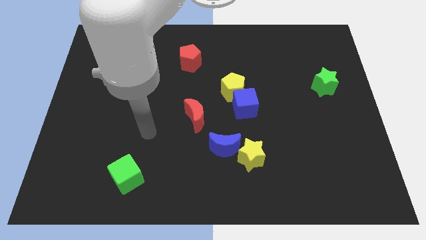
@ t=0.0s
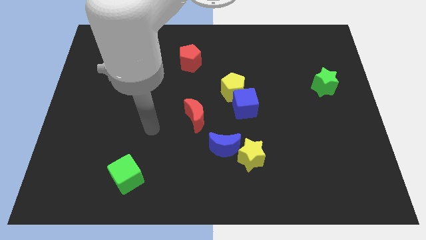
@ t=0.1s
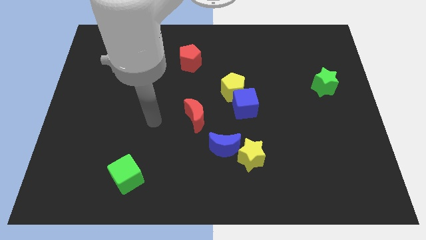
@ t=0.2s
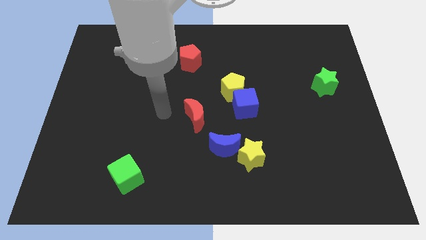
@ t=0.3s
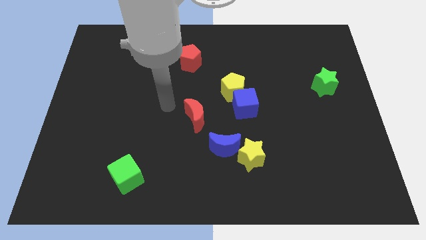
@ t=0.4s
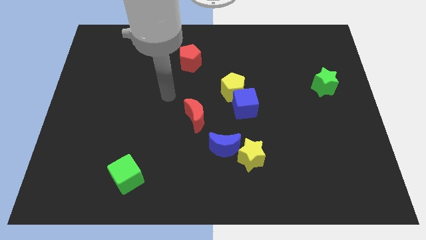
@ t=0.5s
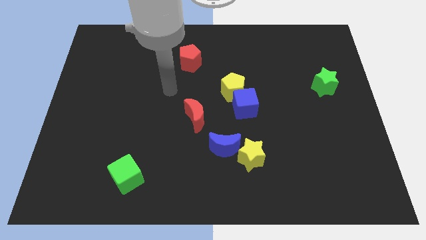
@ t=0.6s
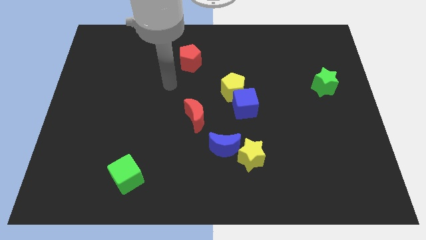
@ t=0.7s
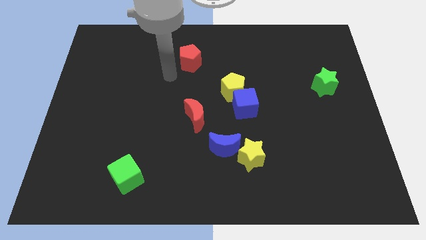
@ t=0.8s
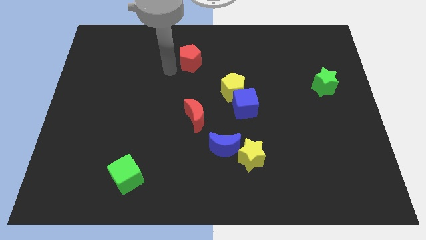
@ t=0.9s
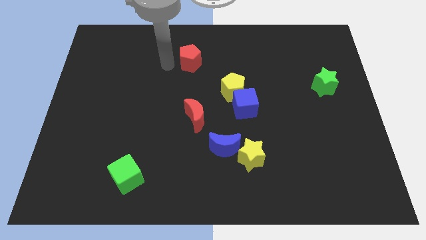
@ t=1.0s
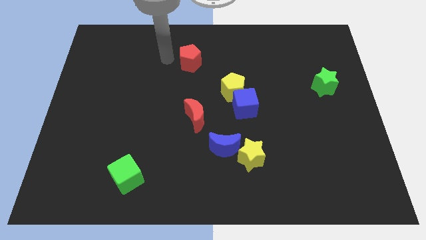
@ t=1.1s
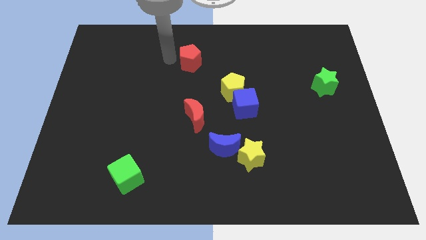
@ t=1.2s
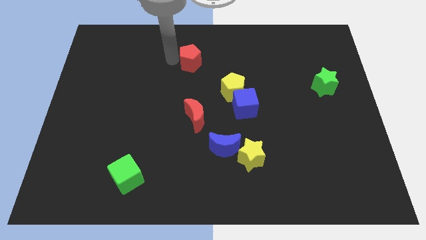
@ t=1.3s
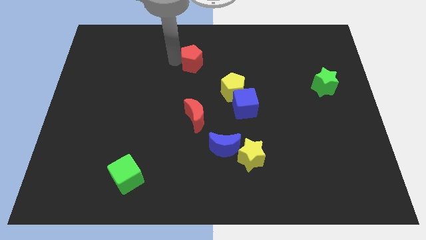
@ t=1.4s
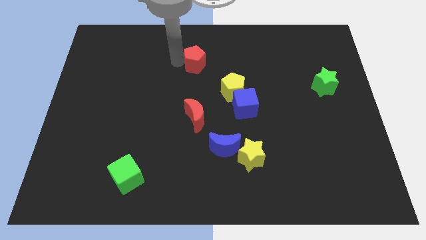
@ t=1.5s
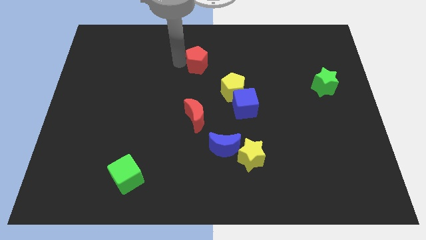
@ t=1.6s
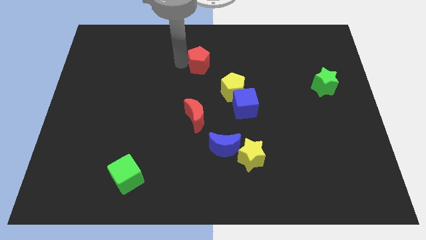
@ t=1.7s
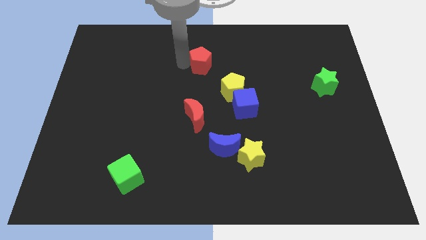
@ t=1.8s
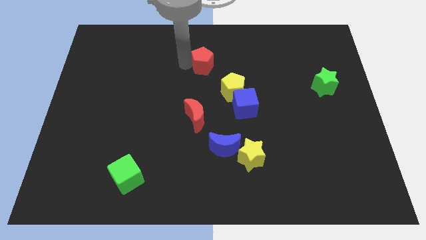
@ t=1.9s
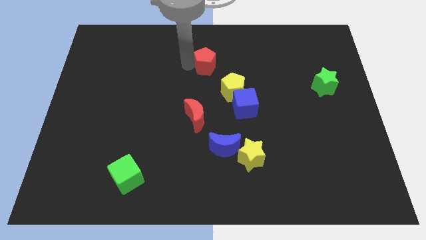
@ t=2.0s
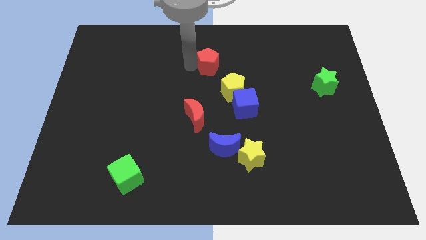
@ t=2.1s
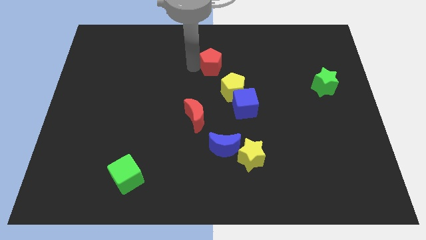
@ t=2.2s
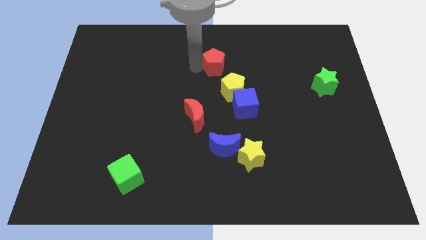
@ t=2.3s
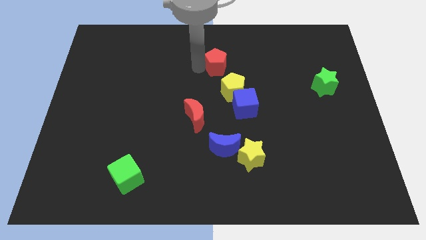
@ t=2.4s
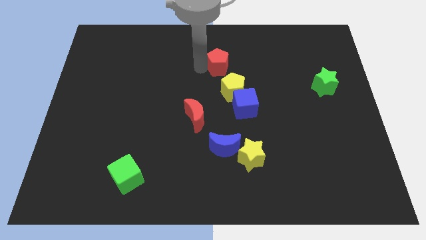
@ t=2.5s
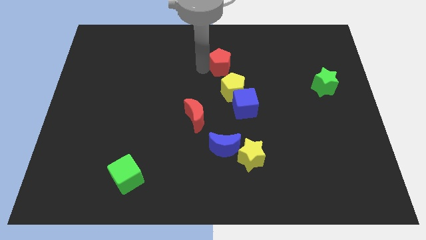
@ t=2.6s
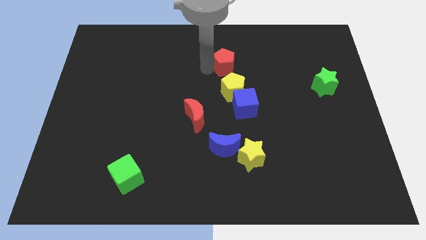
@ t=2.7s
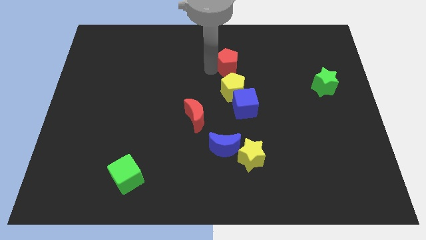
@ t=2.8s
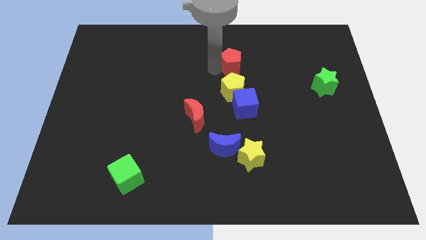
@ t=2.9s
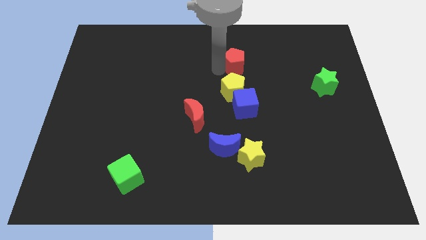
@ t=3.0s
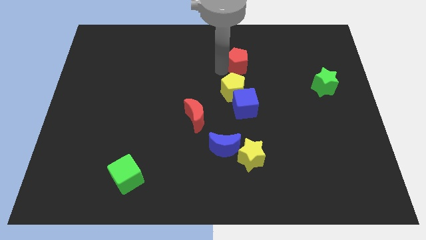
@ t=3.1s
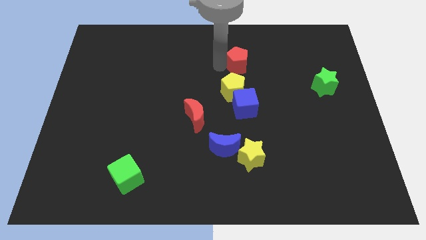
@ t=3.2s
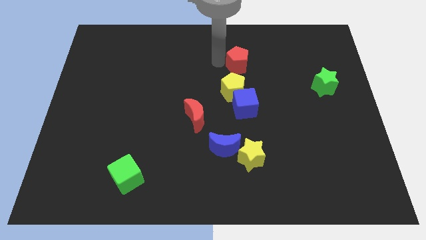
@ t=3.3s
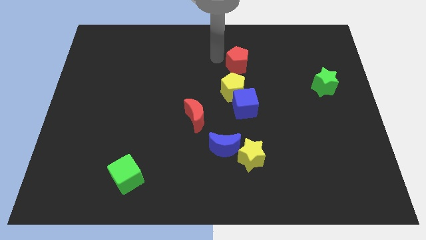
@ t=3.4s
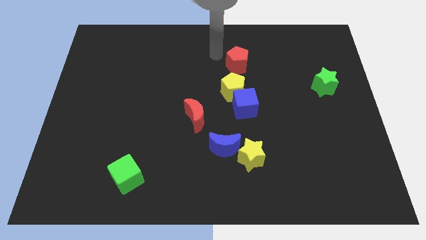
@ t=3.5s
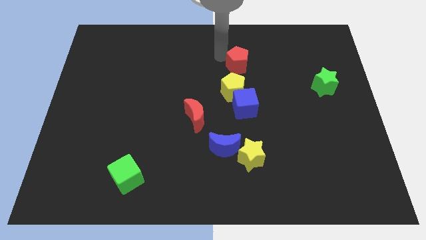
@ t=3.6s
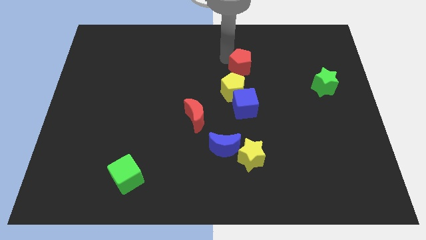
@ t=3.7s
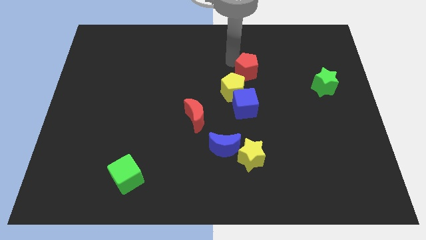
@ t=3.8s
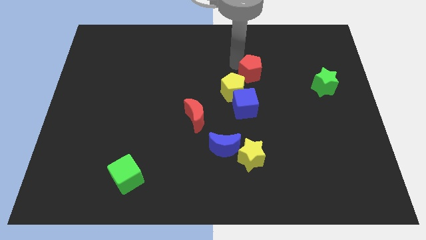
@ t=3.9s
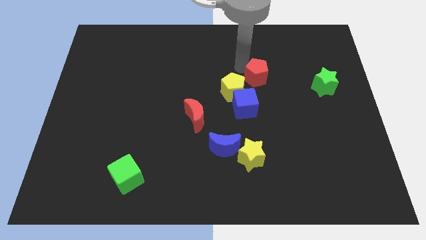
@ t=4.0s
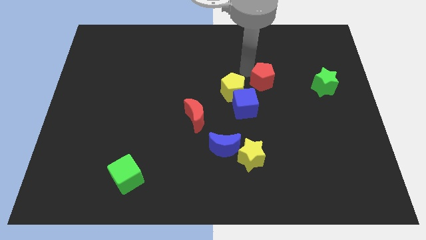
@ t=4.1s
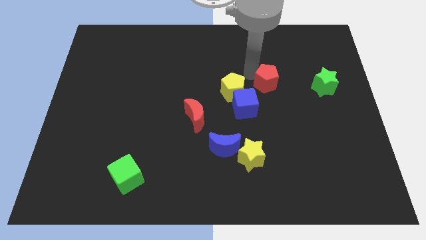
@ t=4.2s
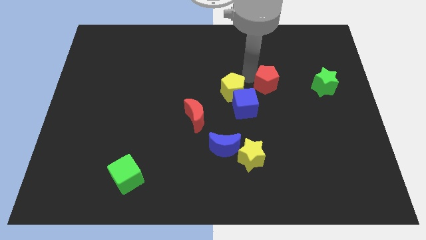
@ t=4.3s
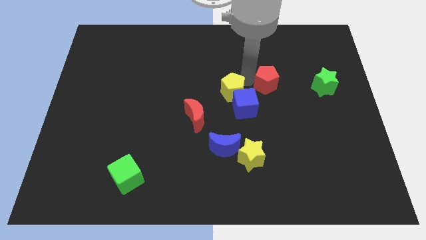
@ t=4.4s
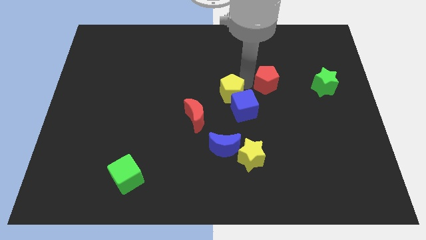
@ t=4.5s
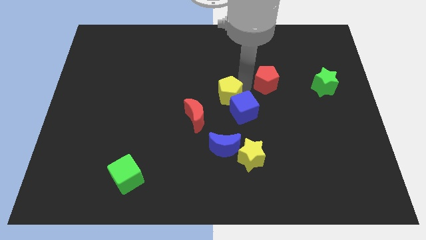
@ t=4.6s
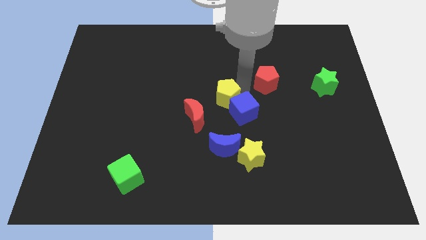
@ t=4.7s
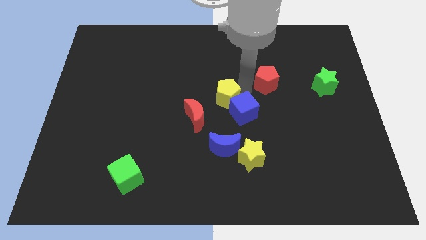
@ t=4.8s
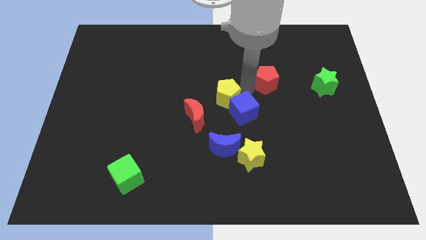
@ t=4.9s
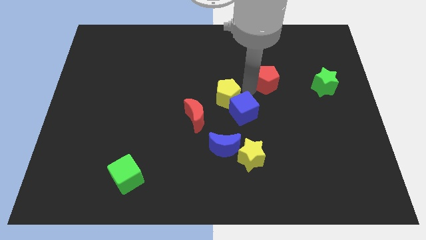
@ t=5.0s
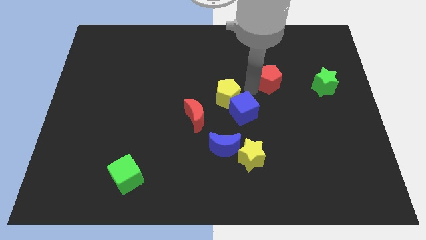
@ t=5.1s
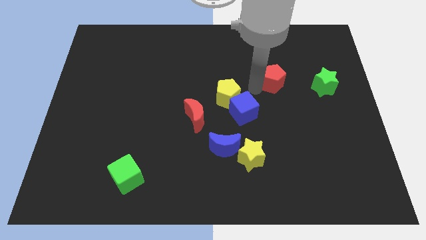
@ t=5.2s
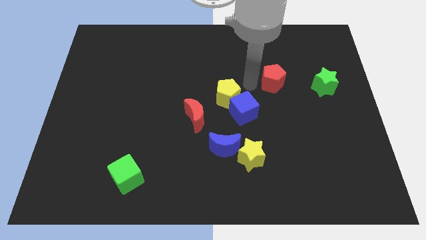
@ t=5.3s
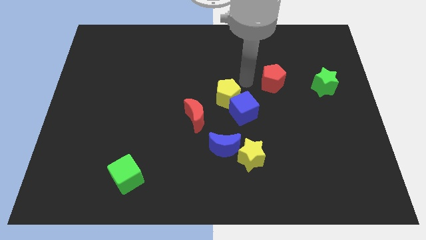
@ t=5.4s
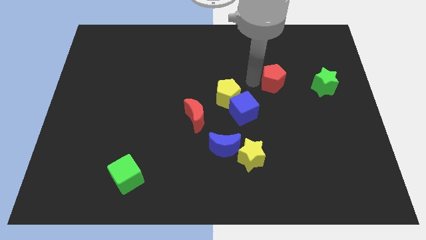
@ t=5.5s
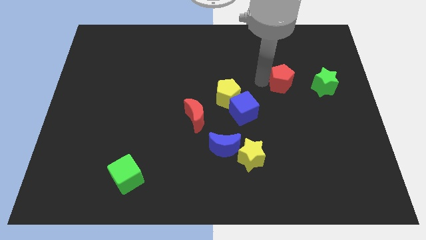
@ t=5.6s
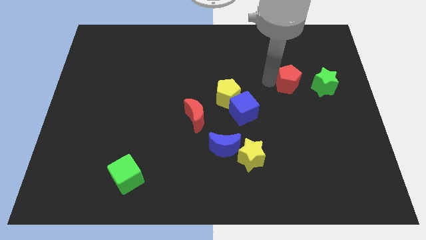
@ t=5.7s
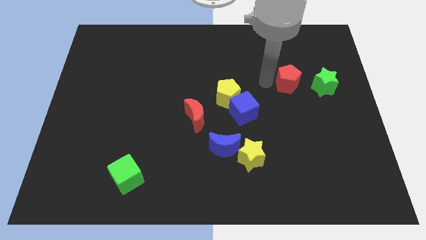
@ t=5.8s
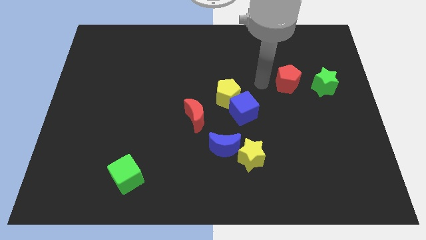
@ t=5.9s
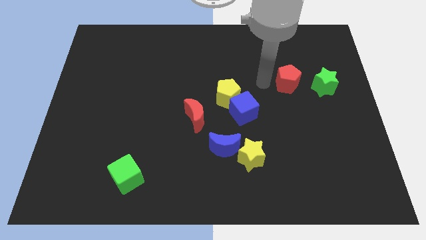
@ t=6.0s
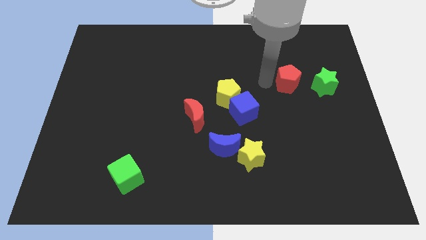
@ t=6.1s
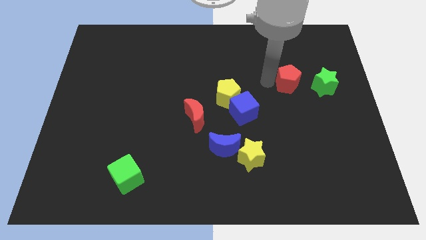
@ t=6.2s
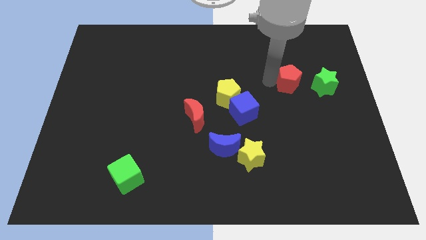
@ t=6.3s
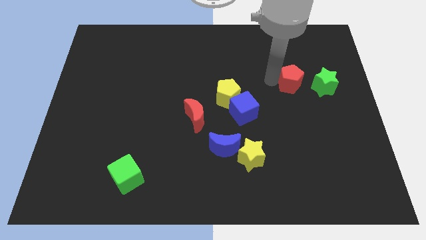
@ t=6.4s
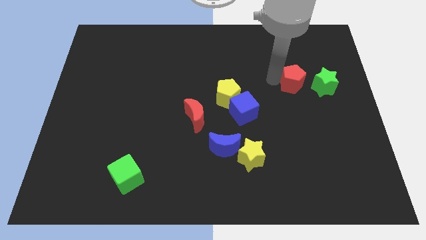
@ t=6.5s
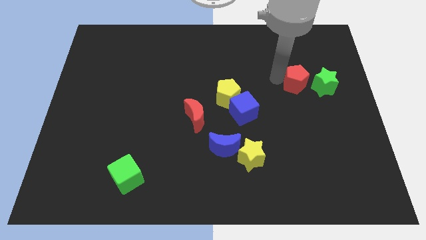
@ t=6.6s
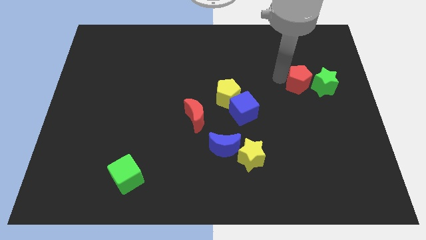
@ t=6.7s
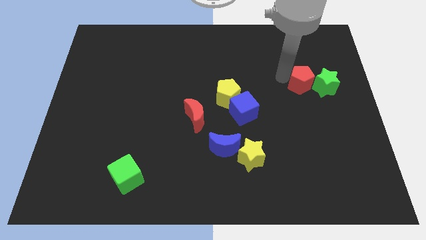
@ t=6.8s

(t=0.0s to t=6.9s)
put the red pentagon towards the green star
